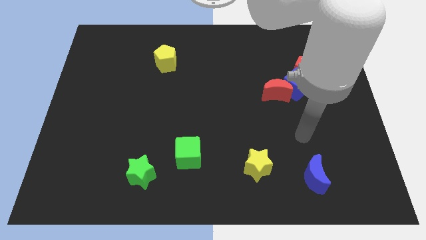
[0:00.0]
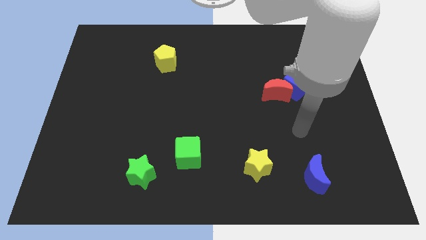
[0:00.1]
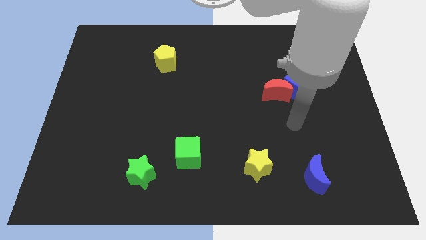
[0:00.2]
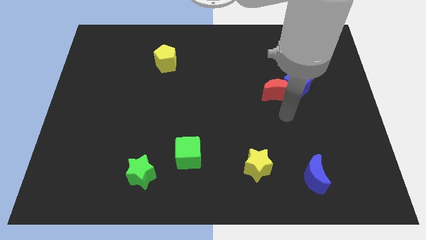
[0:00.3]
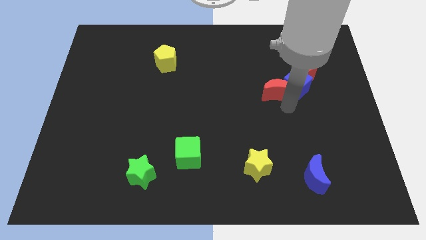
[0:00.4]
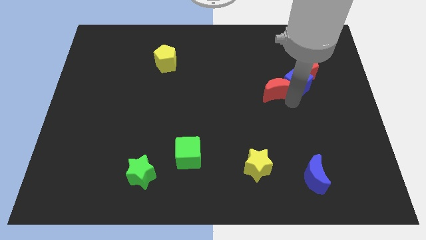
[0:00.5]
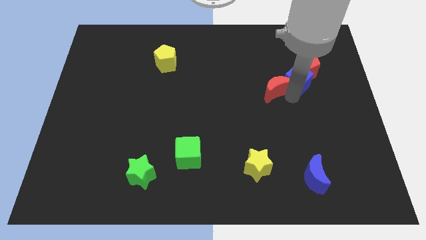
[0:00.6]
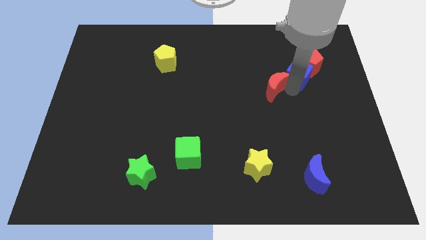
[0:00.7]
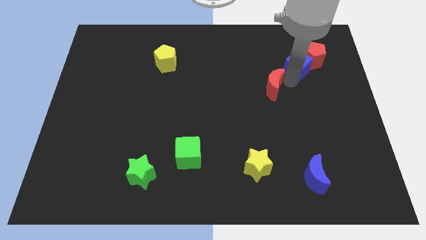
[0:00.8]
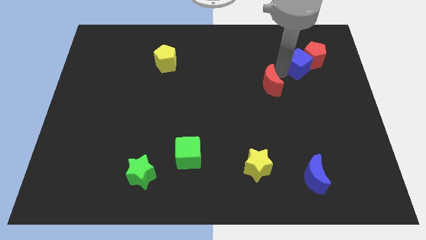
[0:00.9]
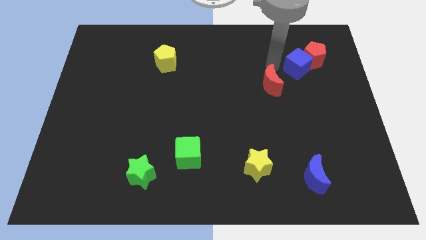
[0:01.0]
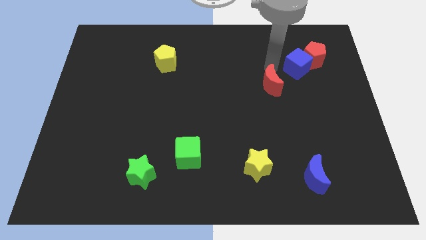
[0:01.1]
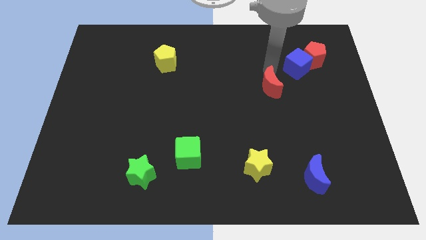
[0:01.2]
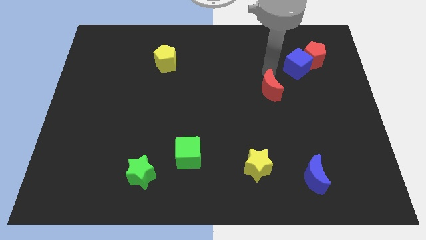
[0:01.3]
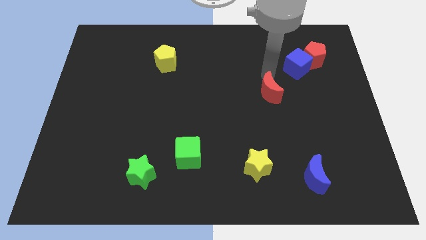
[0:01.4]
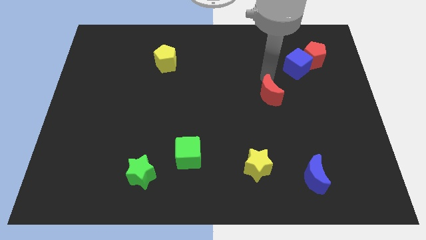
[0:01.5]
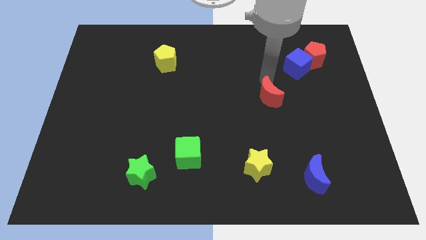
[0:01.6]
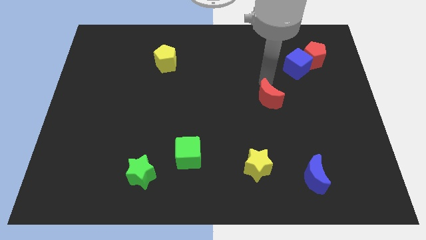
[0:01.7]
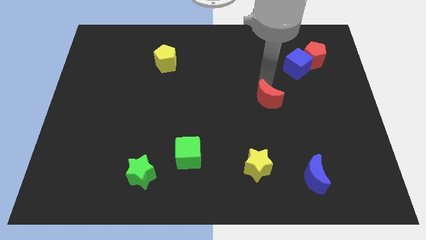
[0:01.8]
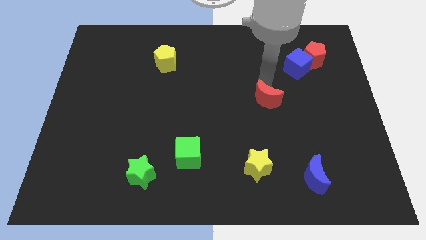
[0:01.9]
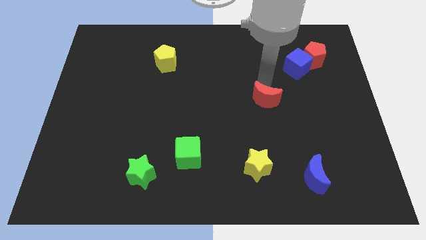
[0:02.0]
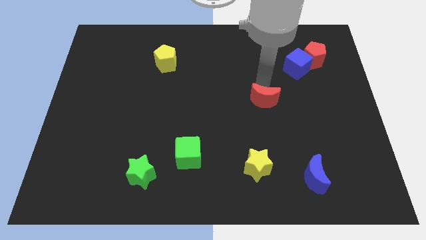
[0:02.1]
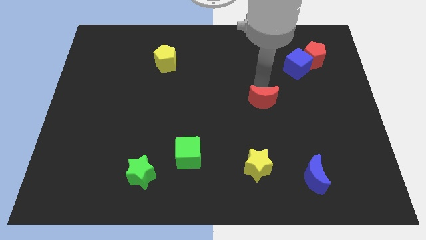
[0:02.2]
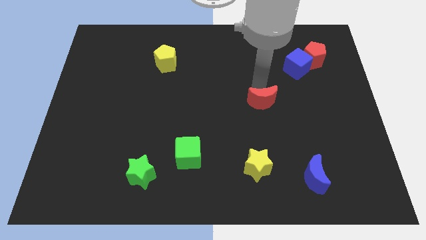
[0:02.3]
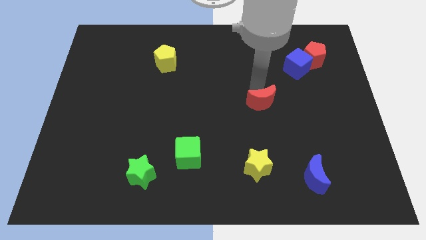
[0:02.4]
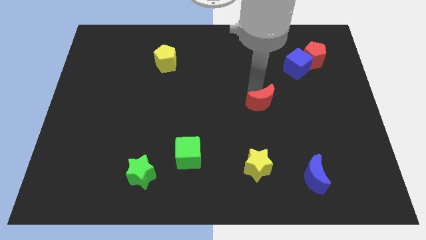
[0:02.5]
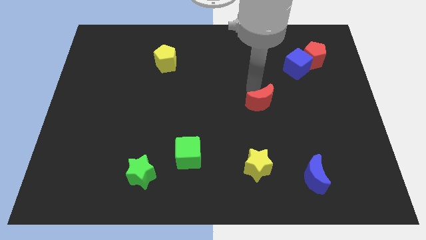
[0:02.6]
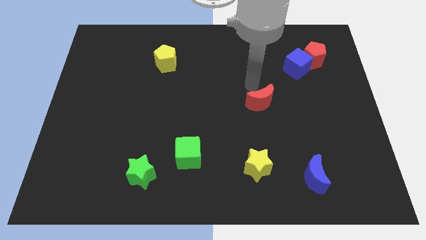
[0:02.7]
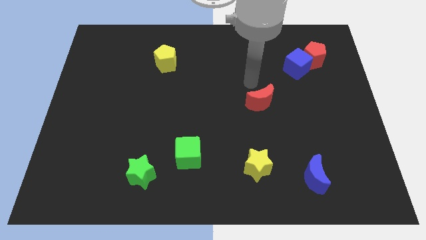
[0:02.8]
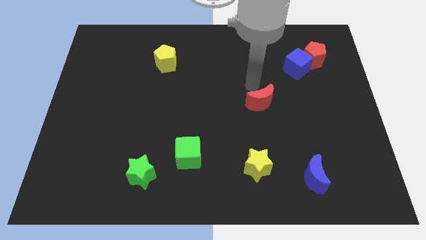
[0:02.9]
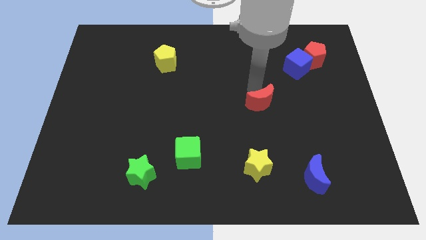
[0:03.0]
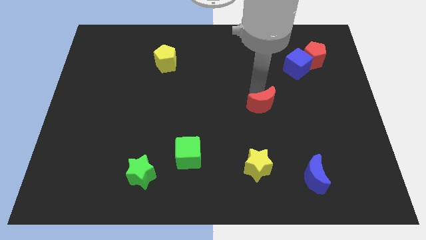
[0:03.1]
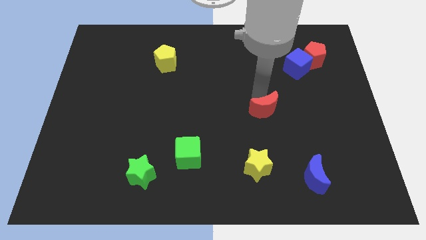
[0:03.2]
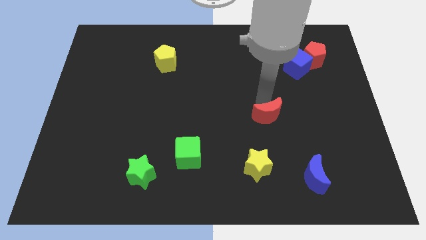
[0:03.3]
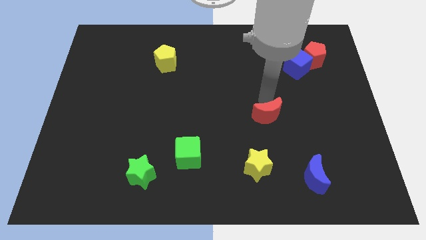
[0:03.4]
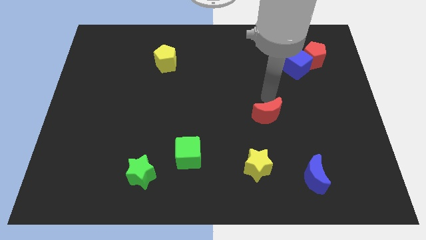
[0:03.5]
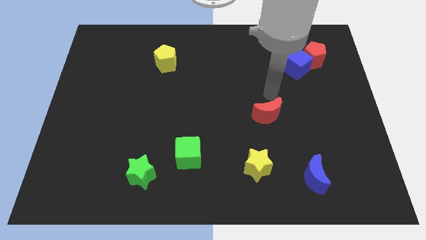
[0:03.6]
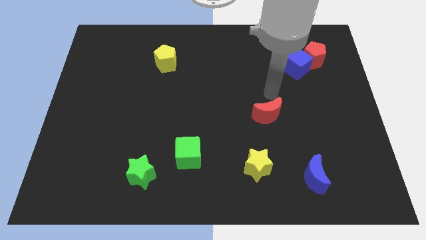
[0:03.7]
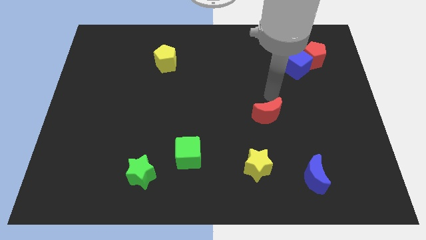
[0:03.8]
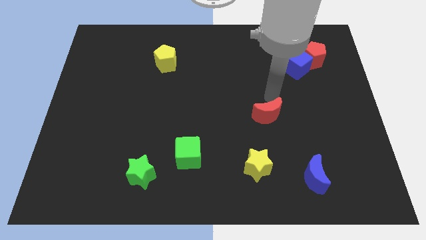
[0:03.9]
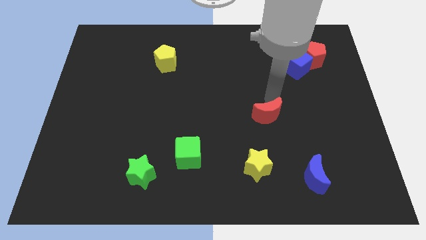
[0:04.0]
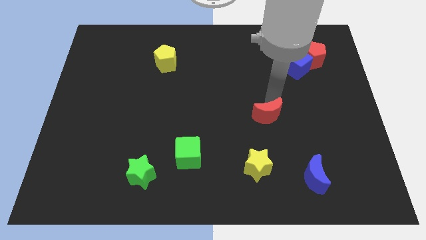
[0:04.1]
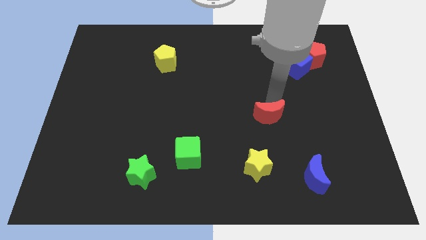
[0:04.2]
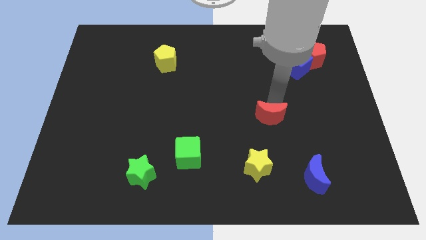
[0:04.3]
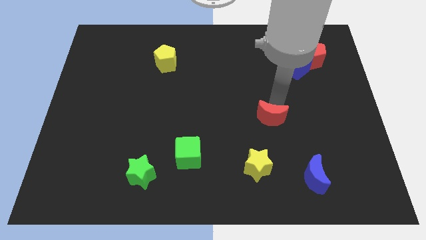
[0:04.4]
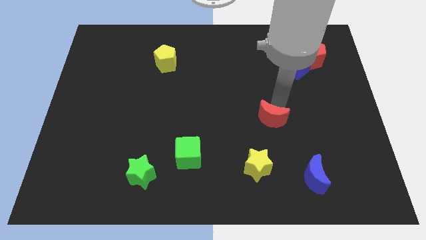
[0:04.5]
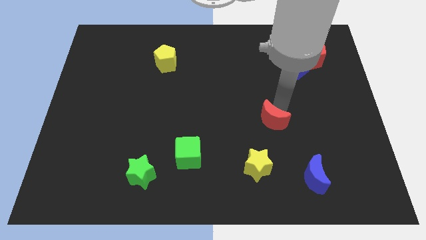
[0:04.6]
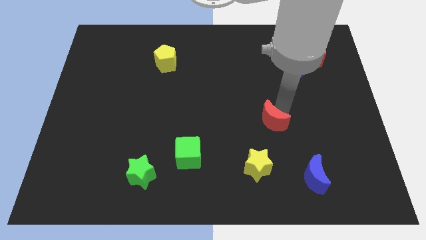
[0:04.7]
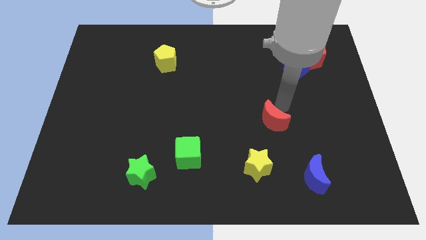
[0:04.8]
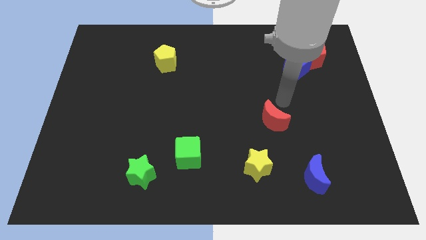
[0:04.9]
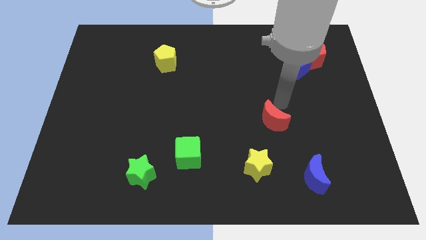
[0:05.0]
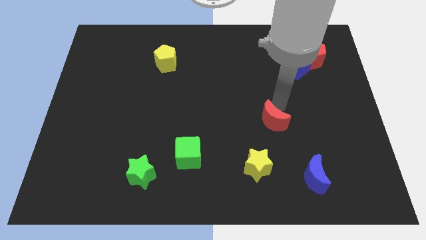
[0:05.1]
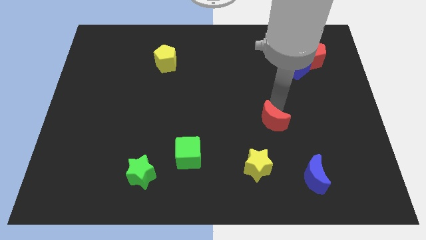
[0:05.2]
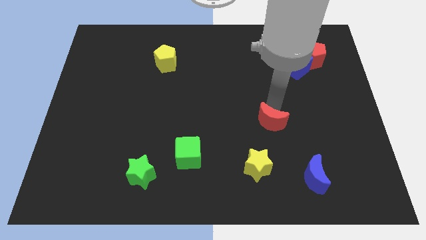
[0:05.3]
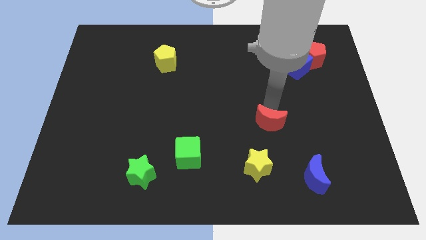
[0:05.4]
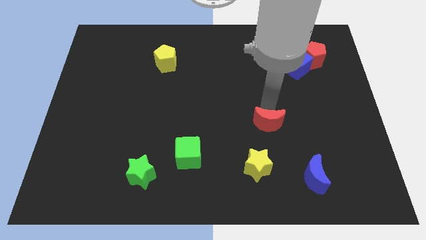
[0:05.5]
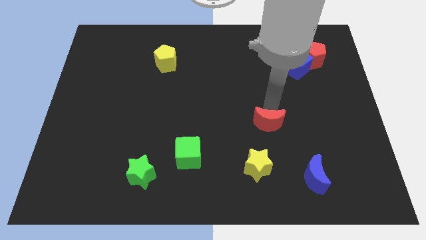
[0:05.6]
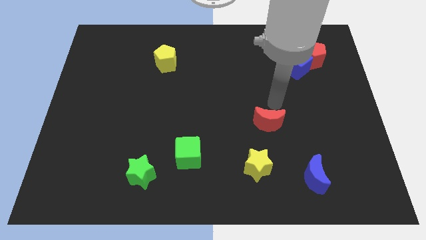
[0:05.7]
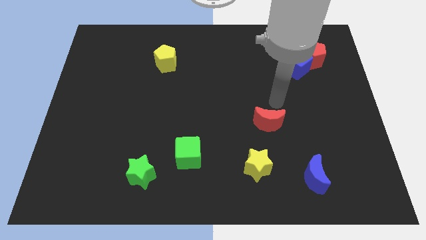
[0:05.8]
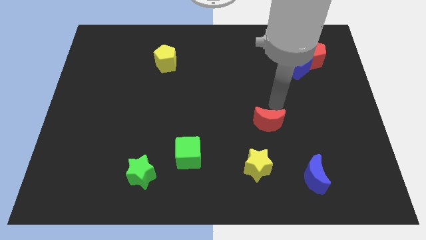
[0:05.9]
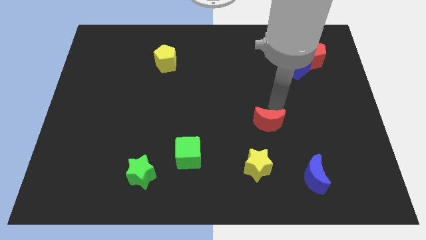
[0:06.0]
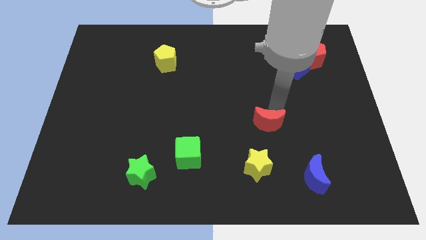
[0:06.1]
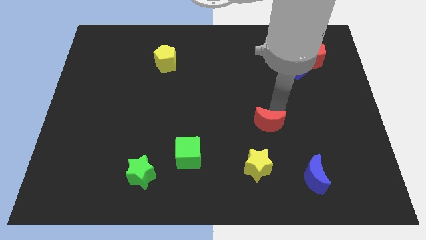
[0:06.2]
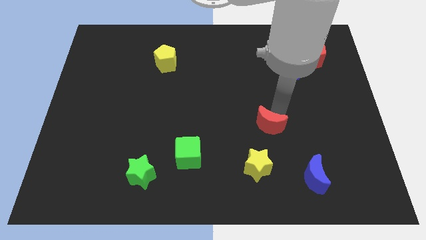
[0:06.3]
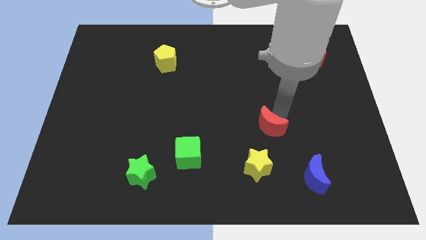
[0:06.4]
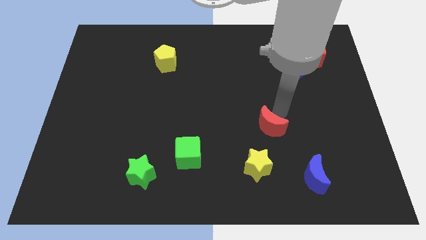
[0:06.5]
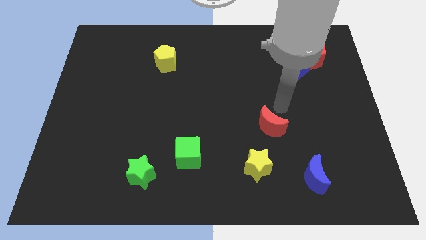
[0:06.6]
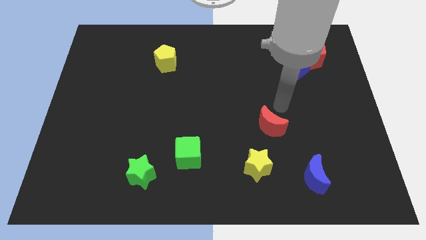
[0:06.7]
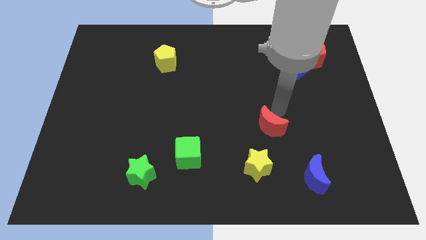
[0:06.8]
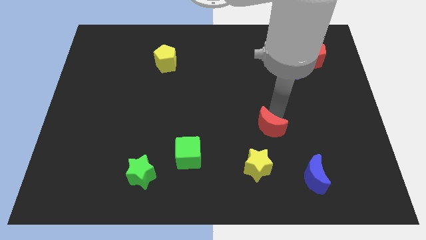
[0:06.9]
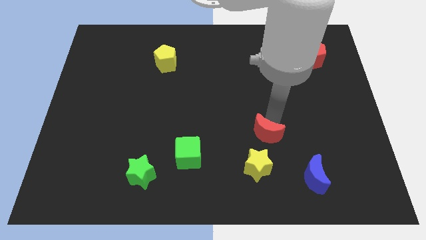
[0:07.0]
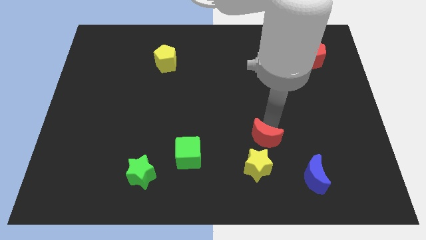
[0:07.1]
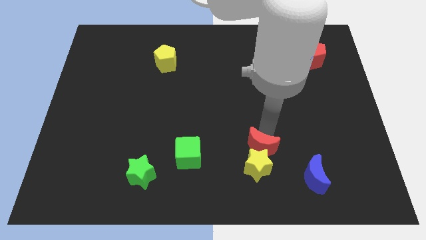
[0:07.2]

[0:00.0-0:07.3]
move the red moon towards the yellow star

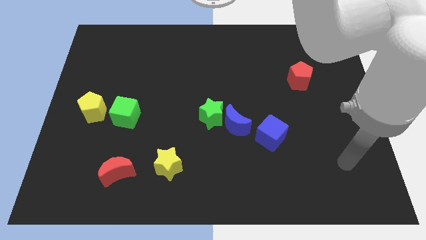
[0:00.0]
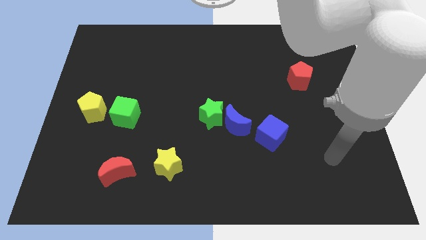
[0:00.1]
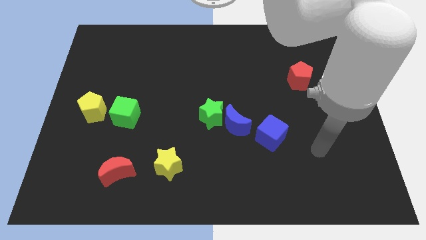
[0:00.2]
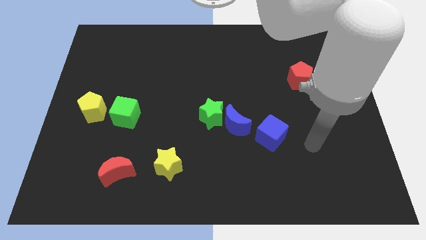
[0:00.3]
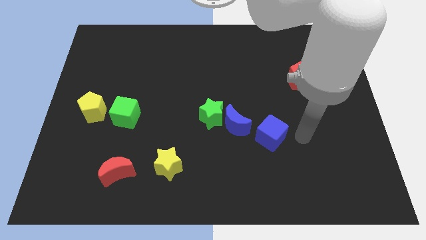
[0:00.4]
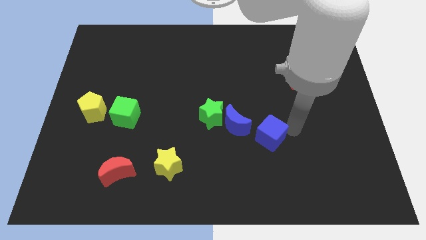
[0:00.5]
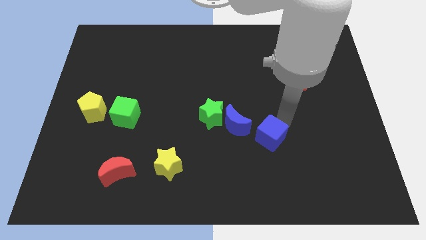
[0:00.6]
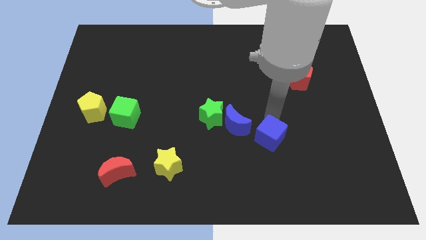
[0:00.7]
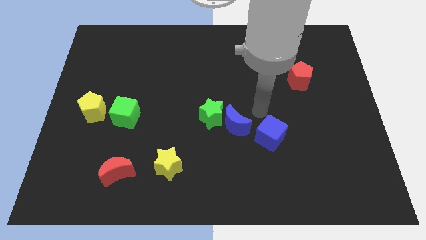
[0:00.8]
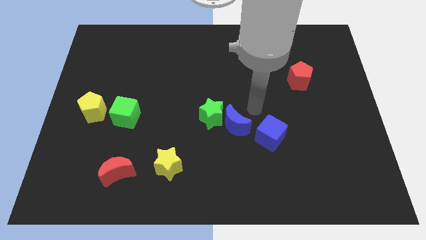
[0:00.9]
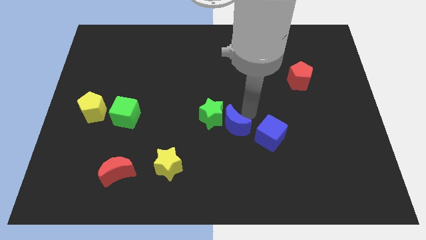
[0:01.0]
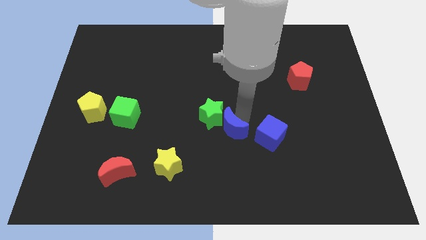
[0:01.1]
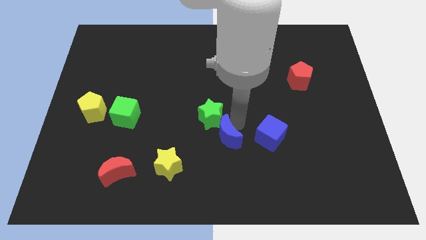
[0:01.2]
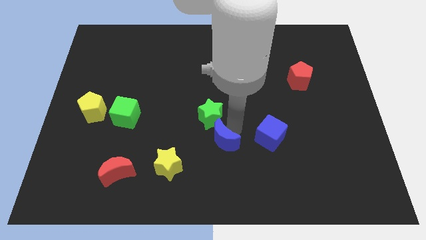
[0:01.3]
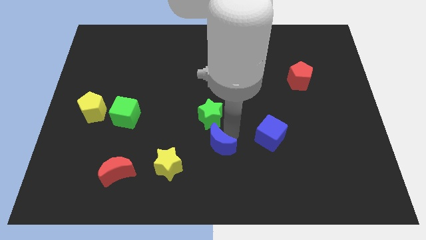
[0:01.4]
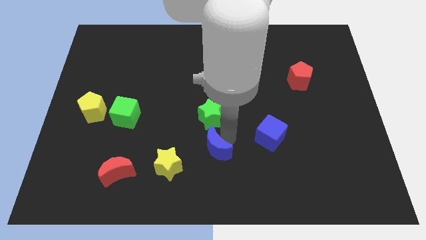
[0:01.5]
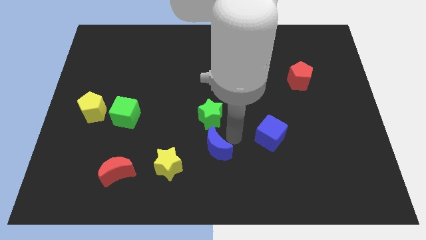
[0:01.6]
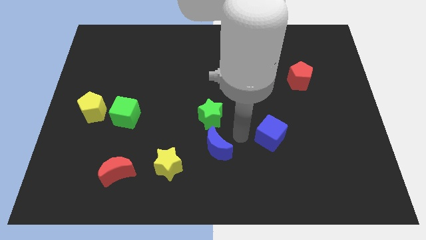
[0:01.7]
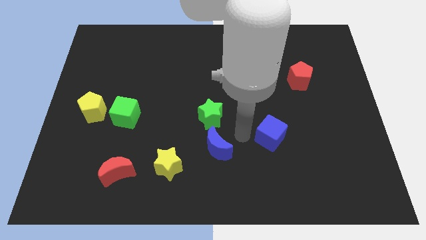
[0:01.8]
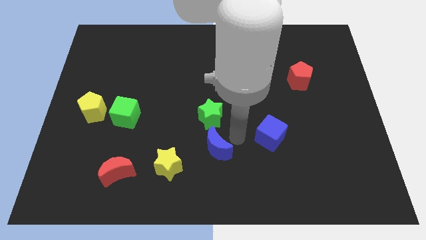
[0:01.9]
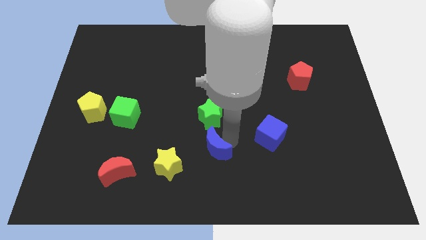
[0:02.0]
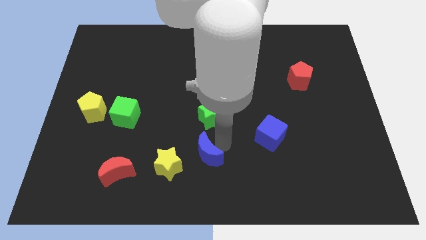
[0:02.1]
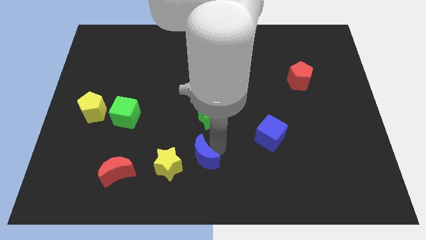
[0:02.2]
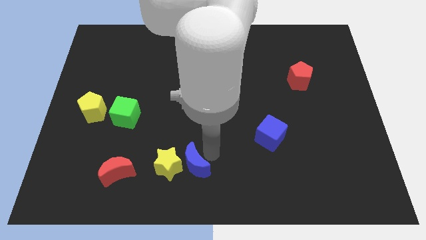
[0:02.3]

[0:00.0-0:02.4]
push the blue moon to the yellow star
